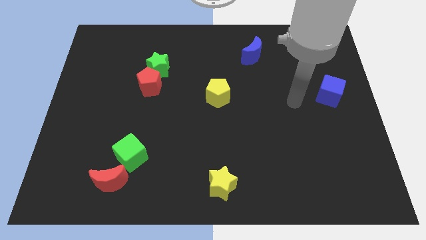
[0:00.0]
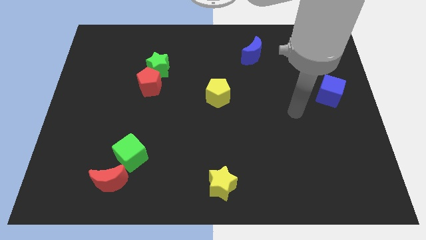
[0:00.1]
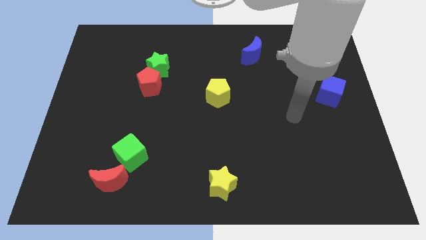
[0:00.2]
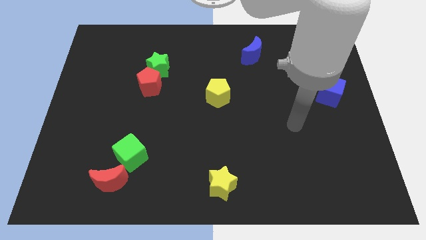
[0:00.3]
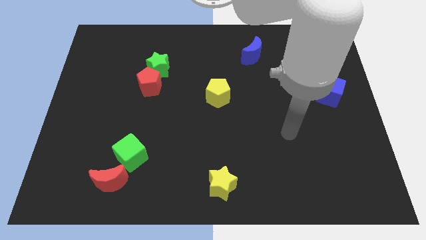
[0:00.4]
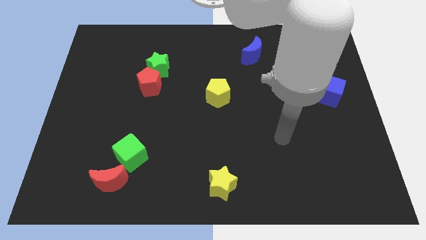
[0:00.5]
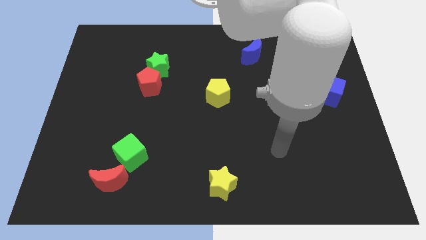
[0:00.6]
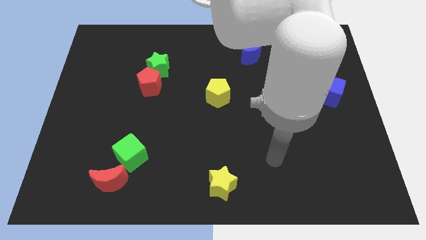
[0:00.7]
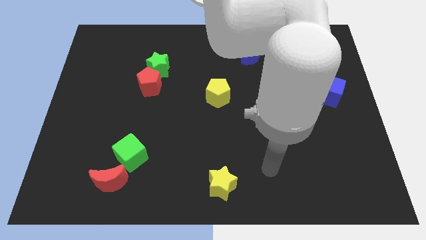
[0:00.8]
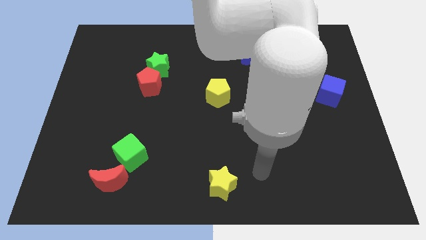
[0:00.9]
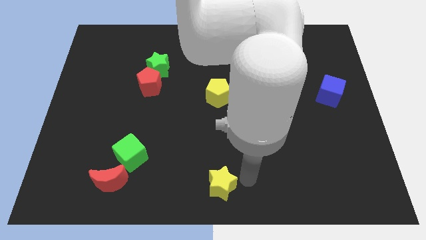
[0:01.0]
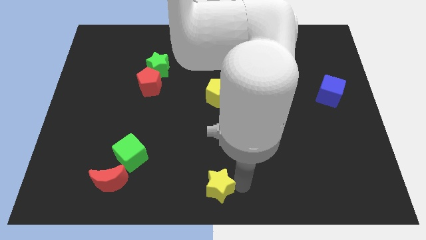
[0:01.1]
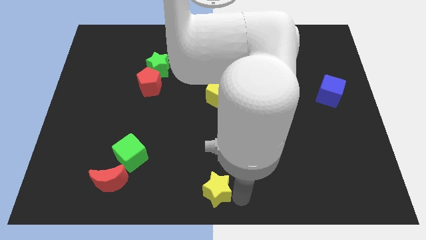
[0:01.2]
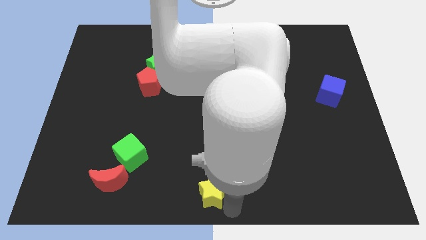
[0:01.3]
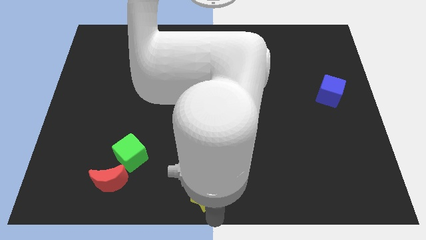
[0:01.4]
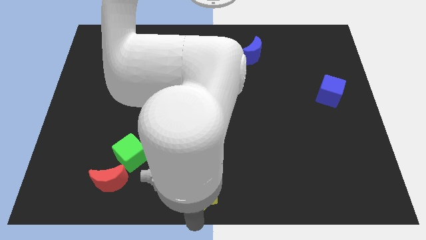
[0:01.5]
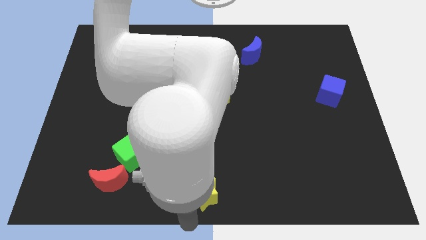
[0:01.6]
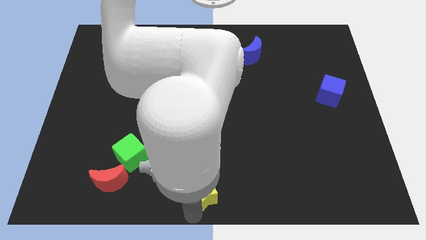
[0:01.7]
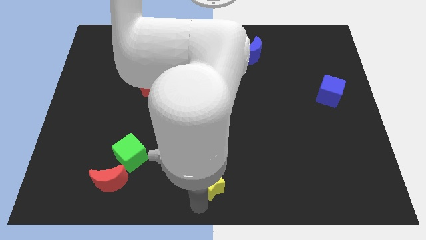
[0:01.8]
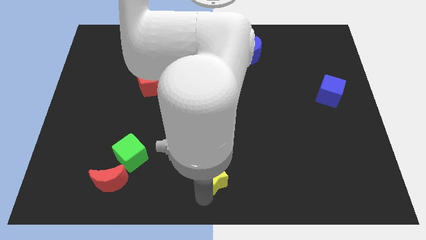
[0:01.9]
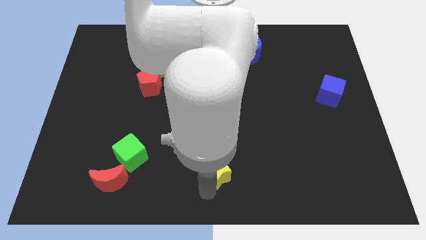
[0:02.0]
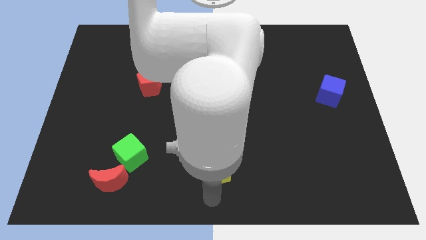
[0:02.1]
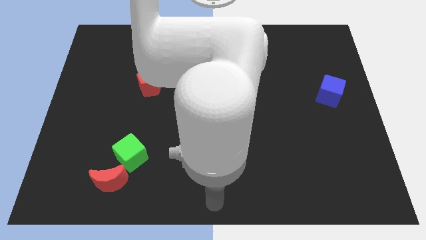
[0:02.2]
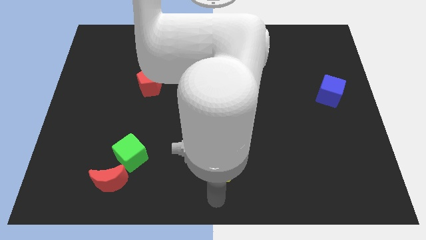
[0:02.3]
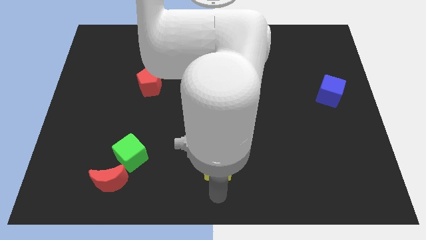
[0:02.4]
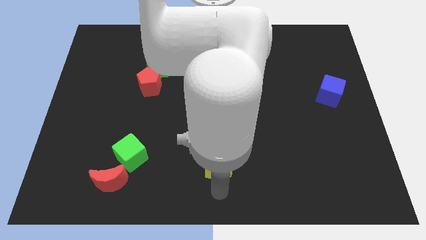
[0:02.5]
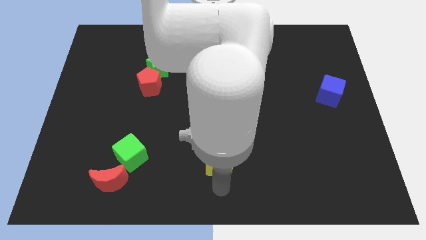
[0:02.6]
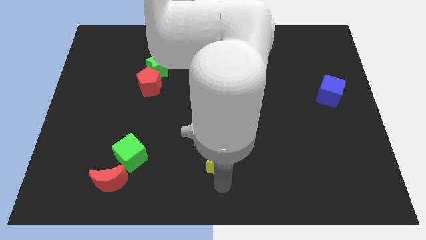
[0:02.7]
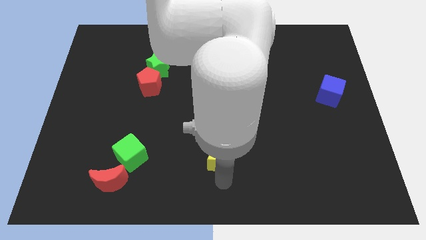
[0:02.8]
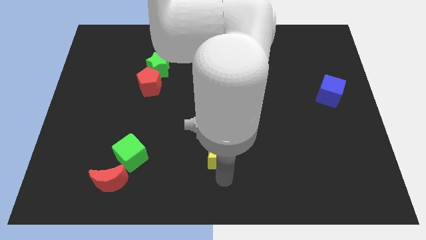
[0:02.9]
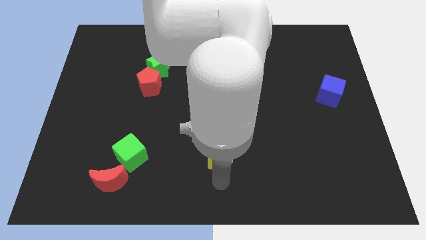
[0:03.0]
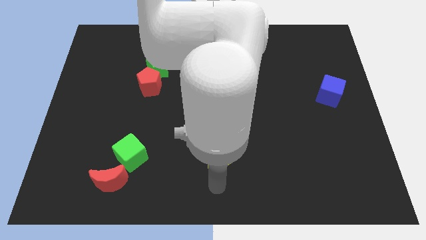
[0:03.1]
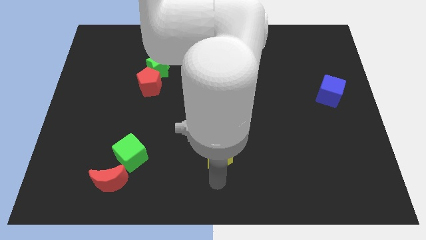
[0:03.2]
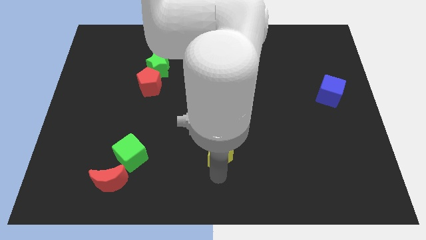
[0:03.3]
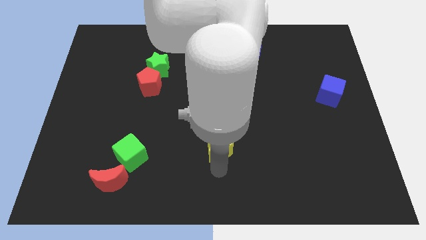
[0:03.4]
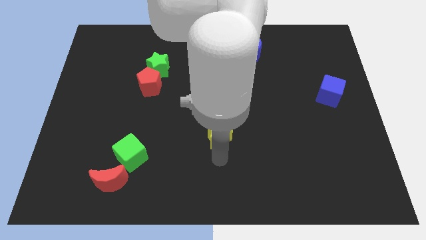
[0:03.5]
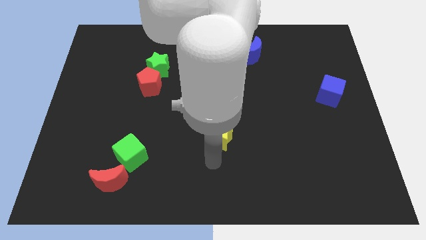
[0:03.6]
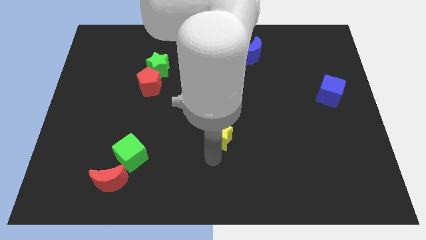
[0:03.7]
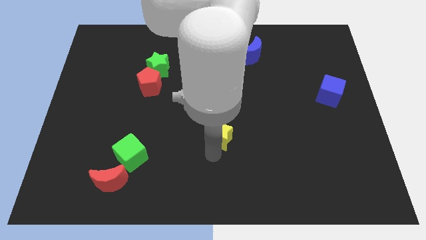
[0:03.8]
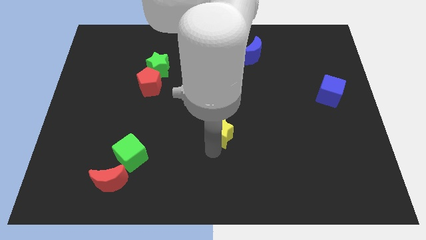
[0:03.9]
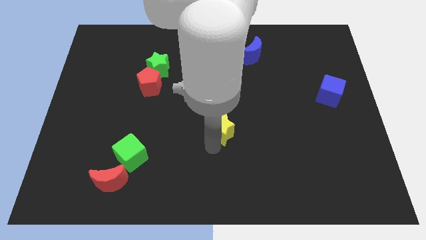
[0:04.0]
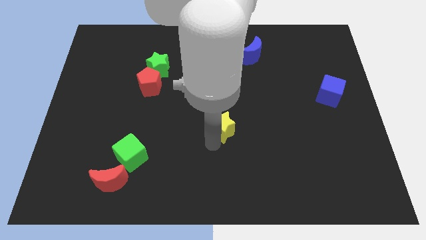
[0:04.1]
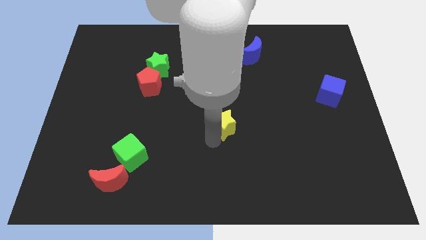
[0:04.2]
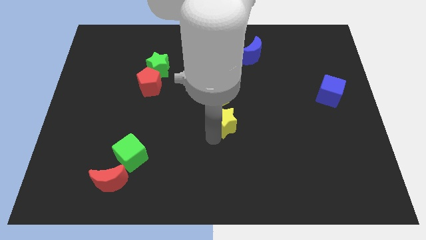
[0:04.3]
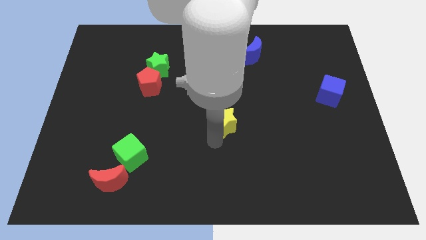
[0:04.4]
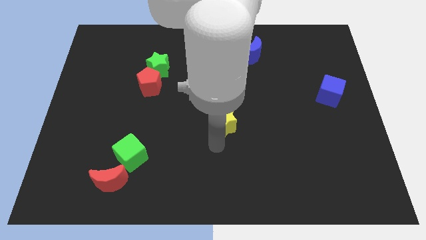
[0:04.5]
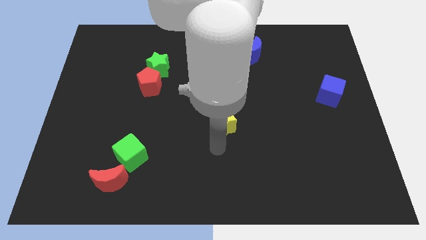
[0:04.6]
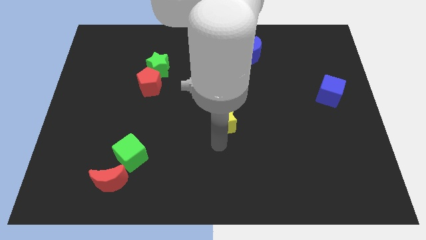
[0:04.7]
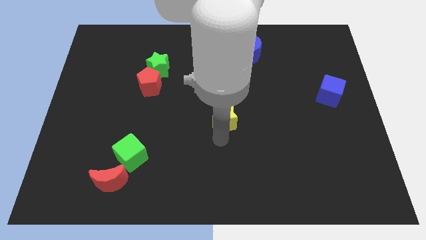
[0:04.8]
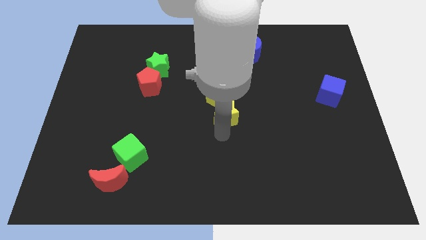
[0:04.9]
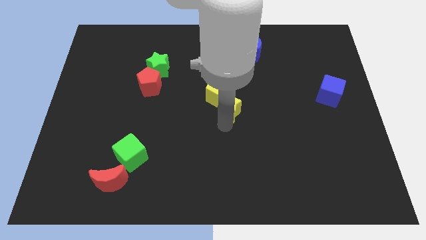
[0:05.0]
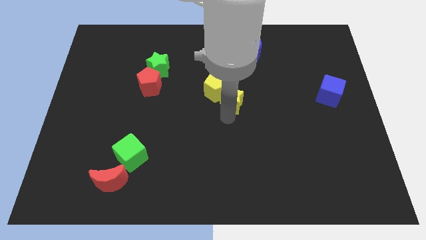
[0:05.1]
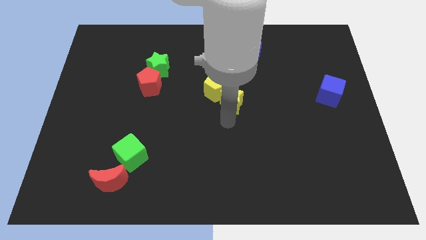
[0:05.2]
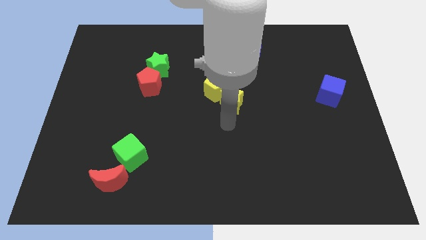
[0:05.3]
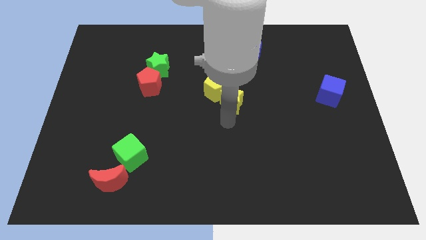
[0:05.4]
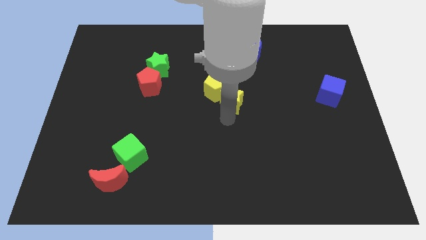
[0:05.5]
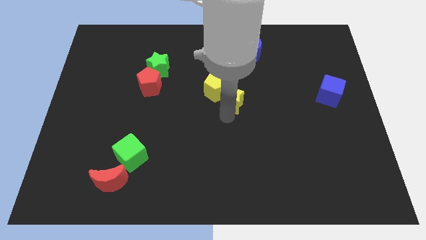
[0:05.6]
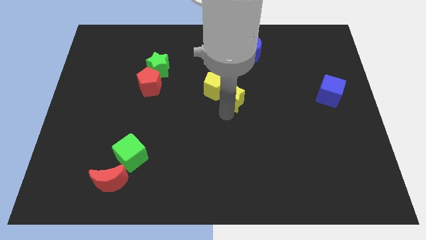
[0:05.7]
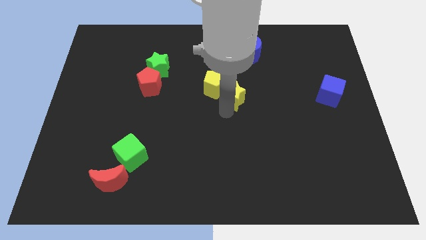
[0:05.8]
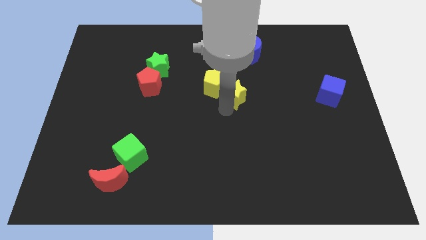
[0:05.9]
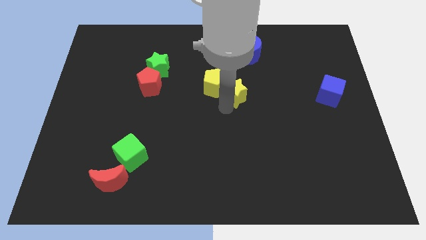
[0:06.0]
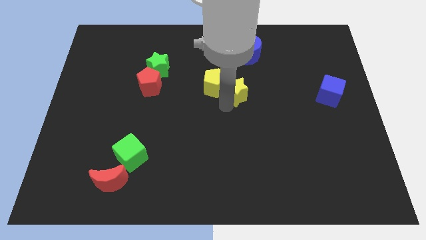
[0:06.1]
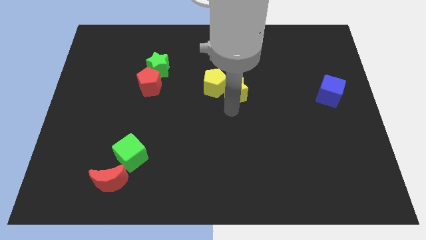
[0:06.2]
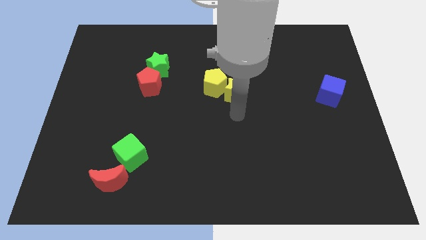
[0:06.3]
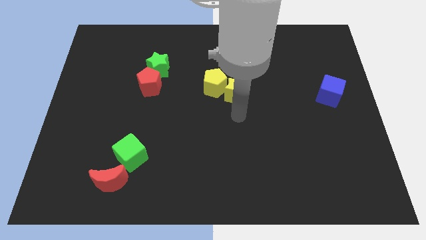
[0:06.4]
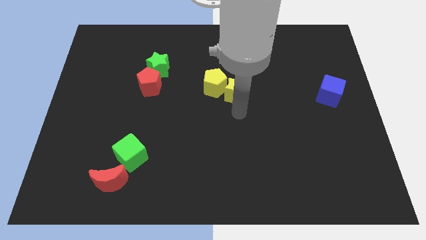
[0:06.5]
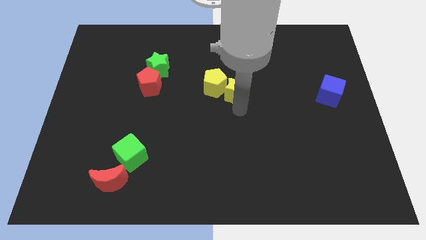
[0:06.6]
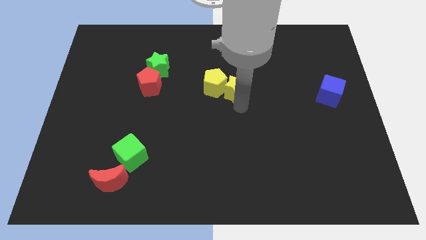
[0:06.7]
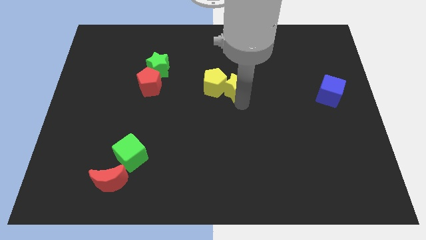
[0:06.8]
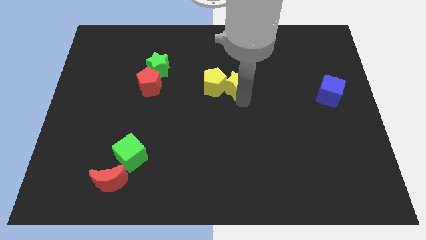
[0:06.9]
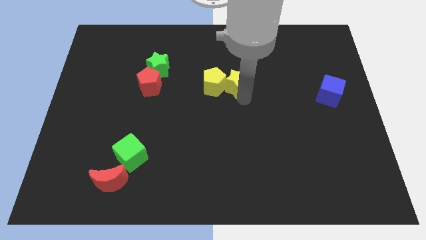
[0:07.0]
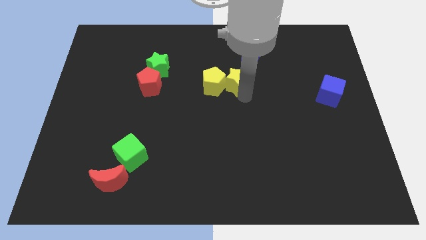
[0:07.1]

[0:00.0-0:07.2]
push the yellow star diagonally down and to the left of the blue moon
